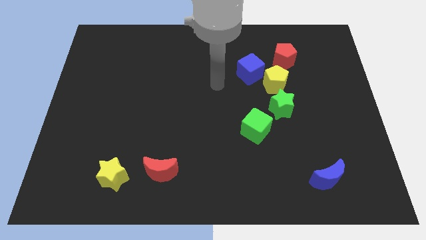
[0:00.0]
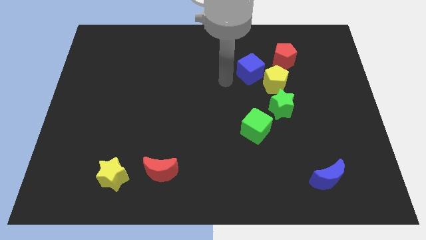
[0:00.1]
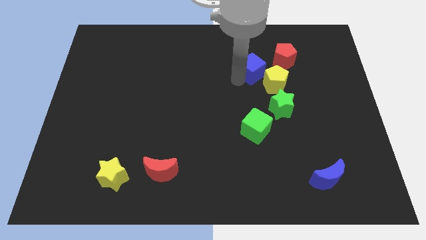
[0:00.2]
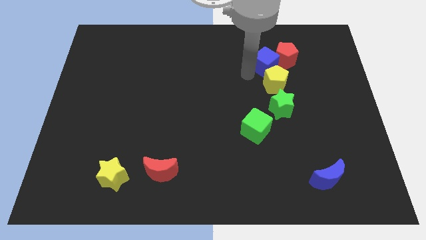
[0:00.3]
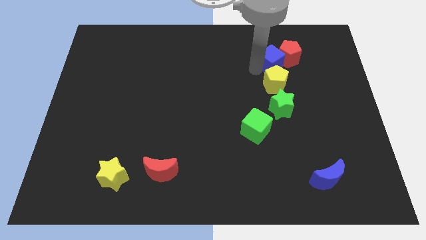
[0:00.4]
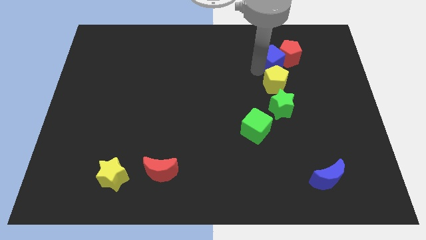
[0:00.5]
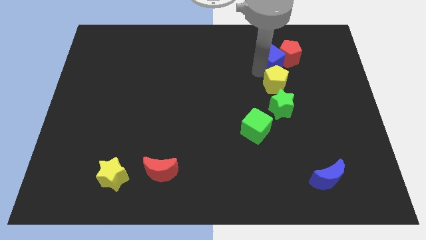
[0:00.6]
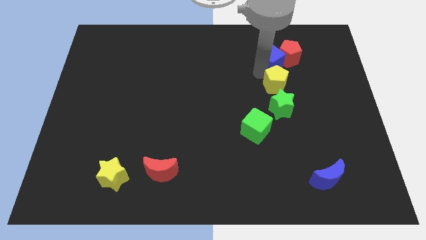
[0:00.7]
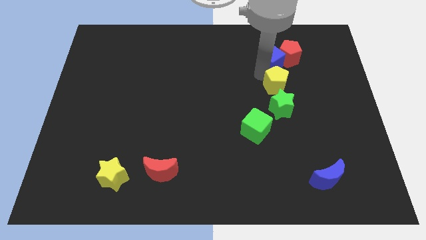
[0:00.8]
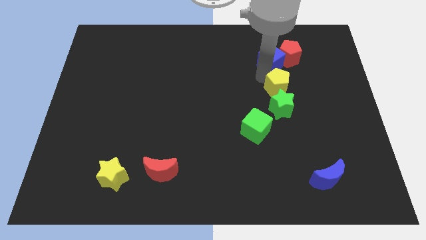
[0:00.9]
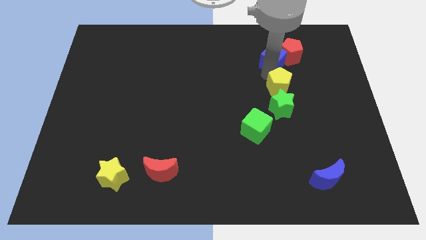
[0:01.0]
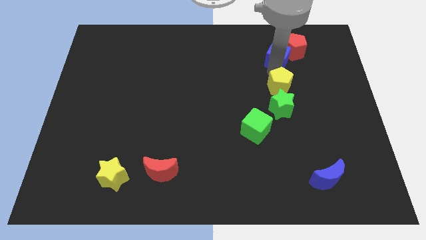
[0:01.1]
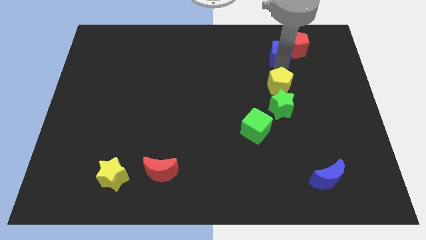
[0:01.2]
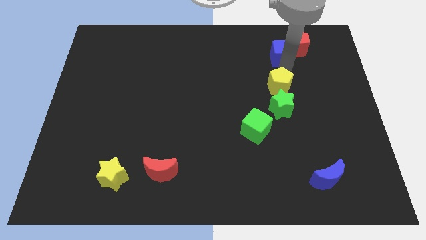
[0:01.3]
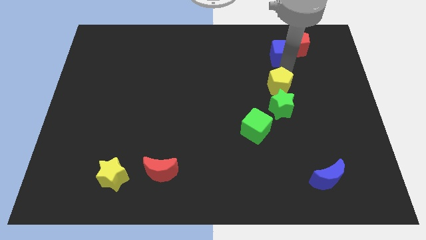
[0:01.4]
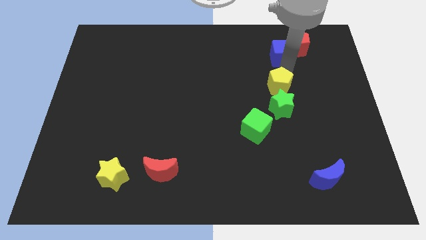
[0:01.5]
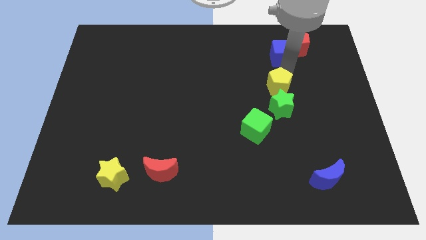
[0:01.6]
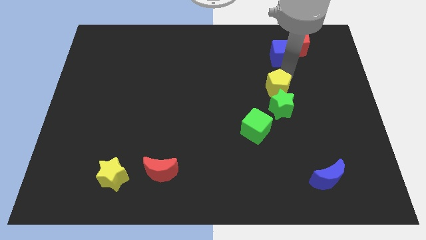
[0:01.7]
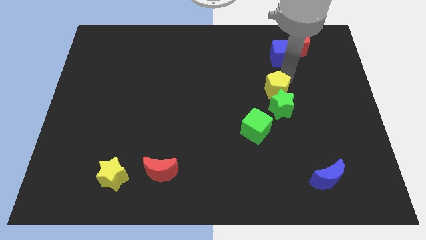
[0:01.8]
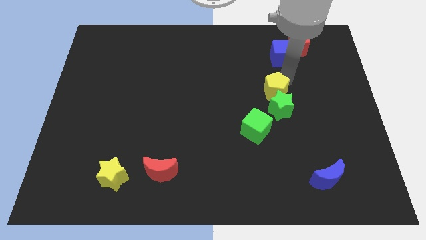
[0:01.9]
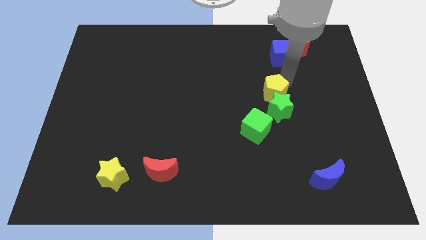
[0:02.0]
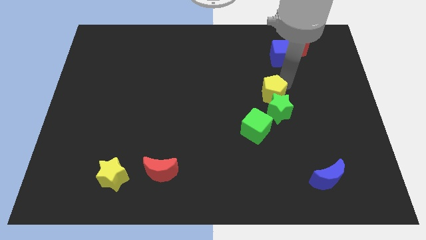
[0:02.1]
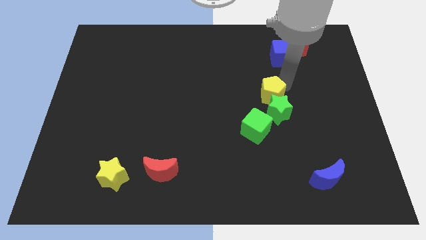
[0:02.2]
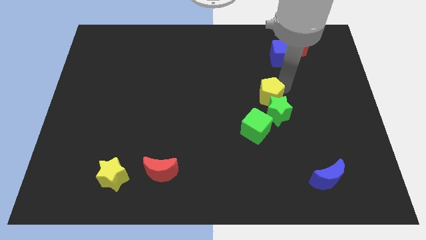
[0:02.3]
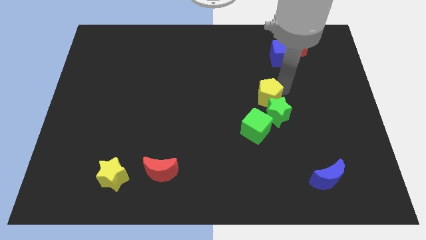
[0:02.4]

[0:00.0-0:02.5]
pull the yellow pentagon apart from the clump

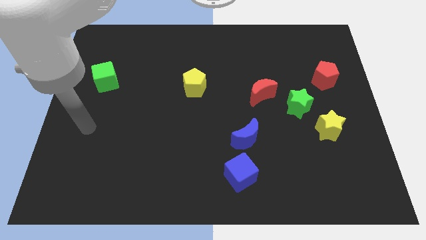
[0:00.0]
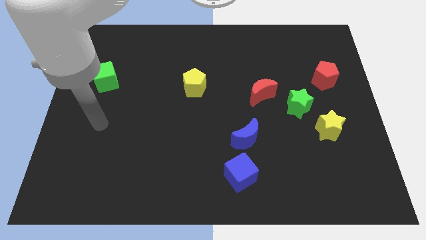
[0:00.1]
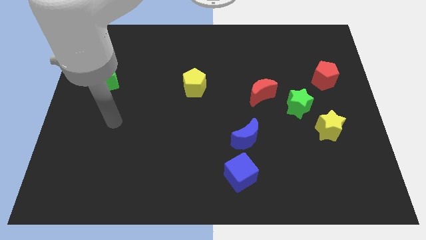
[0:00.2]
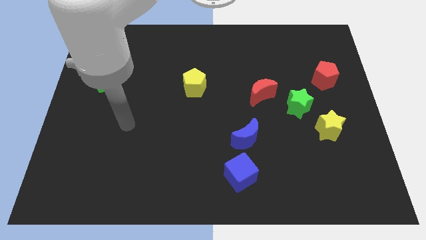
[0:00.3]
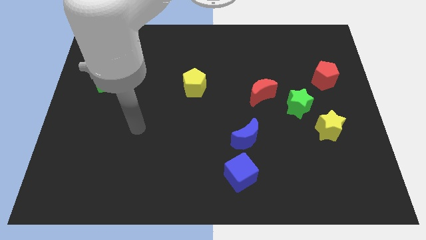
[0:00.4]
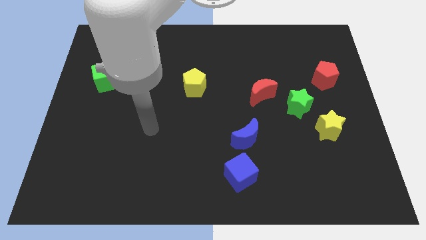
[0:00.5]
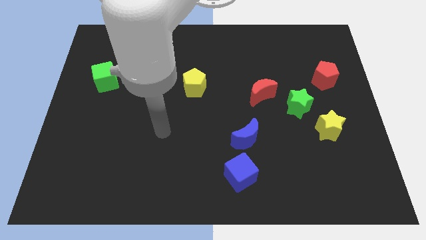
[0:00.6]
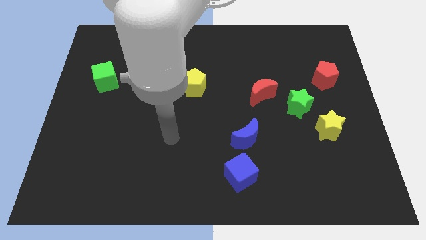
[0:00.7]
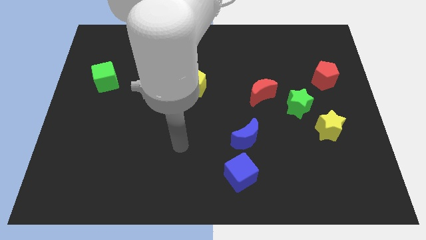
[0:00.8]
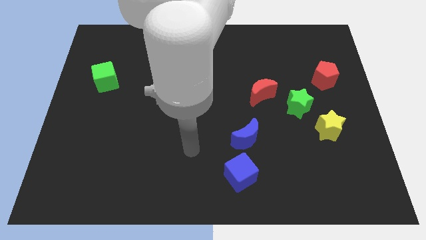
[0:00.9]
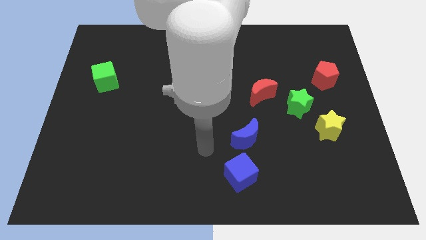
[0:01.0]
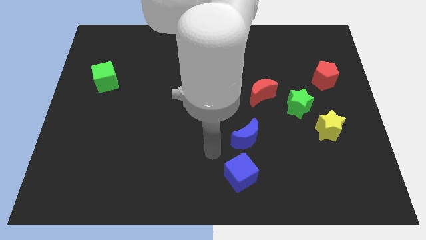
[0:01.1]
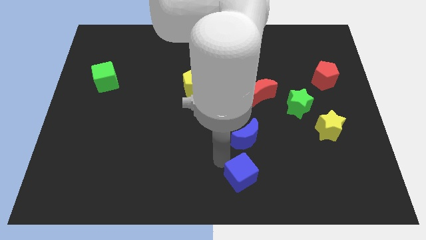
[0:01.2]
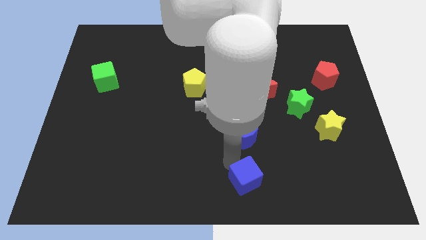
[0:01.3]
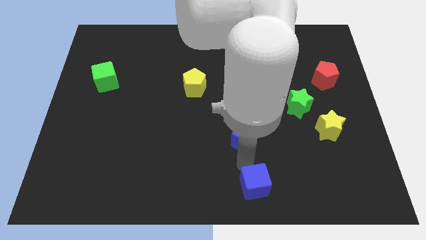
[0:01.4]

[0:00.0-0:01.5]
pull the blue moon apart from the blue cube

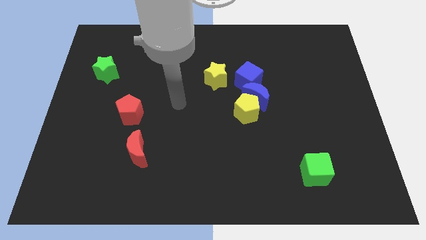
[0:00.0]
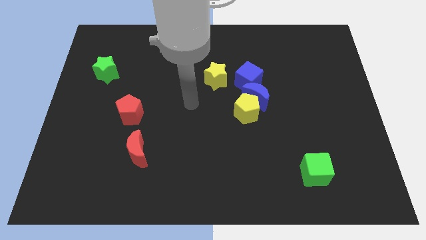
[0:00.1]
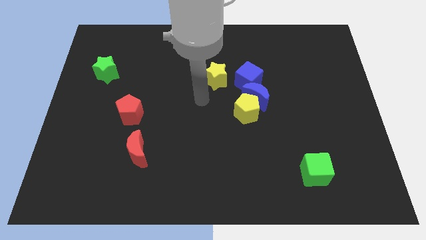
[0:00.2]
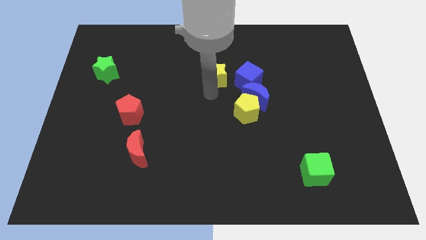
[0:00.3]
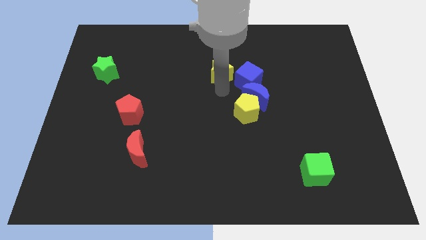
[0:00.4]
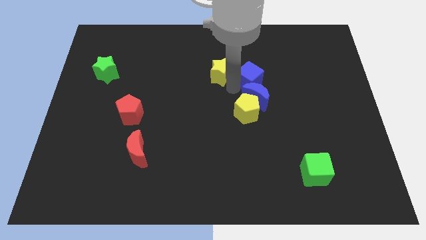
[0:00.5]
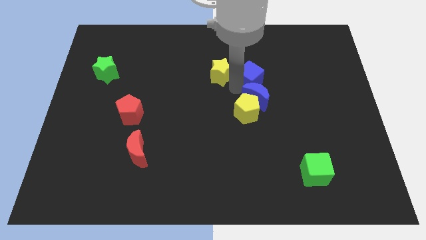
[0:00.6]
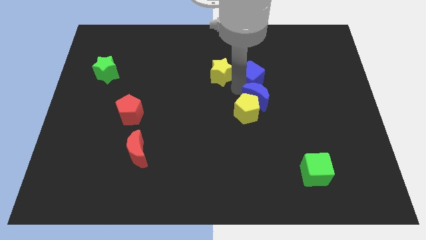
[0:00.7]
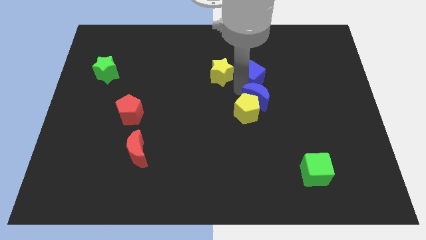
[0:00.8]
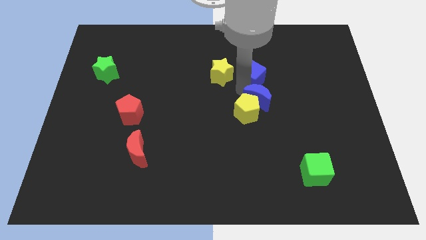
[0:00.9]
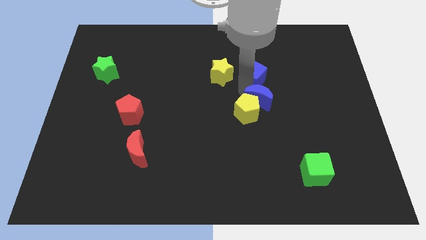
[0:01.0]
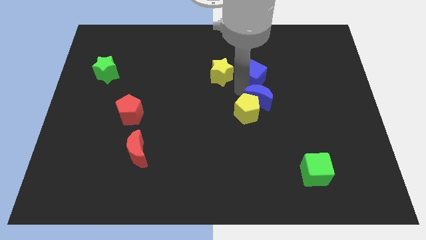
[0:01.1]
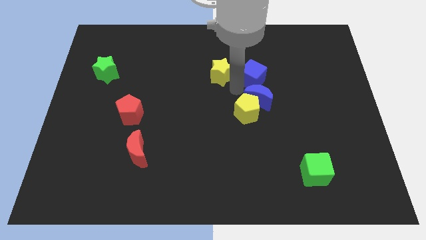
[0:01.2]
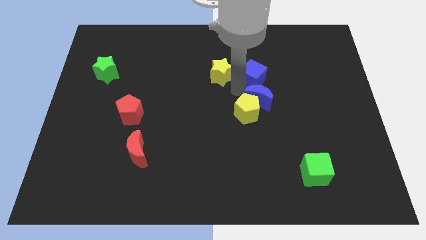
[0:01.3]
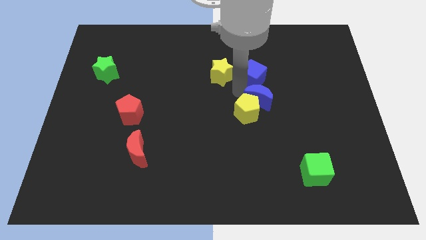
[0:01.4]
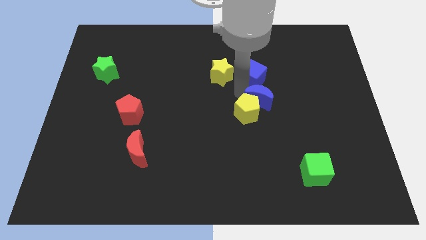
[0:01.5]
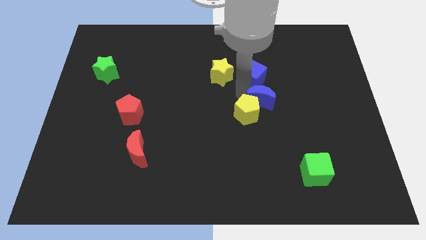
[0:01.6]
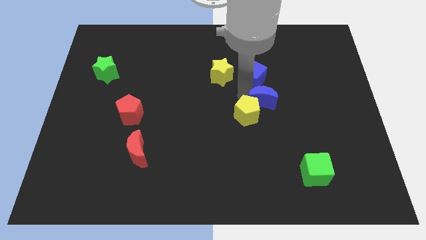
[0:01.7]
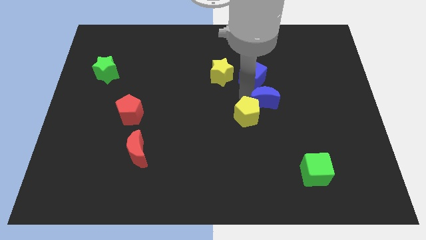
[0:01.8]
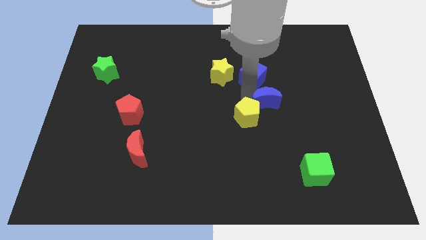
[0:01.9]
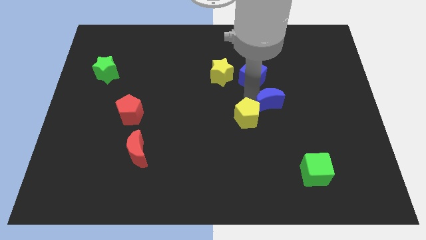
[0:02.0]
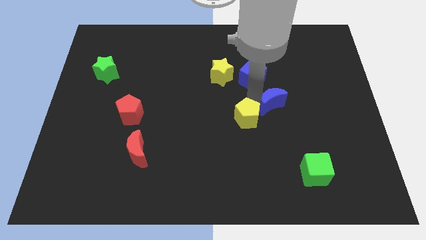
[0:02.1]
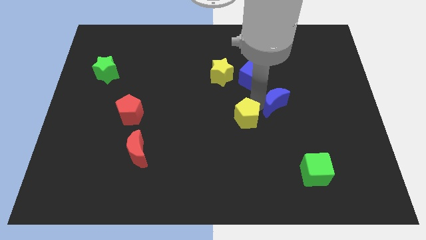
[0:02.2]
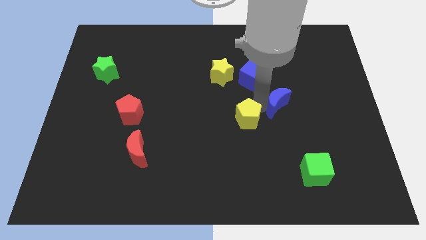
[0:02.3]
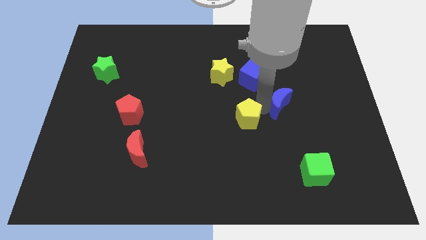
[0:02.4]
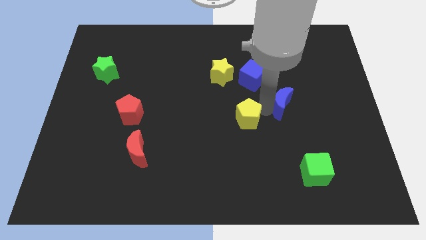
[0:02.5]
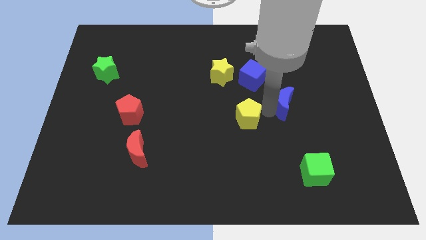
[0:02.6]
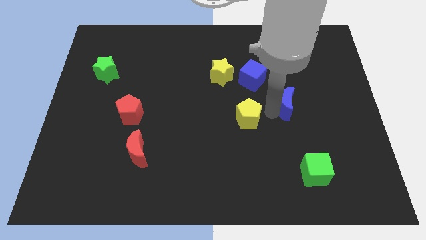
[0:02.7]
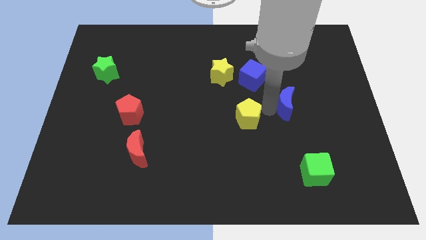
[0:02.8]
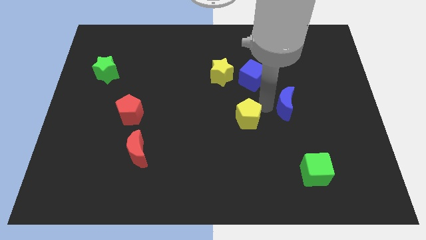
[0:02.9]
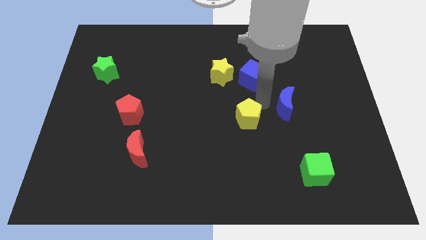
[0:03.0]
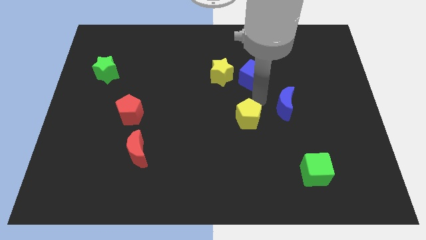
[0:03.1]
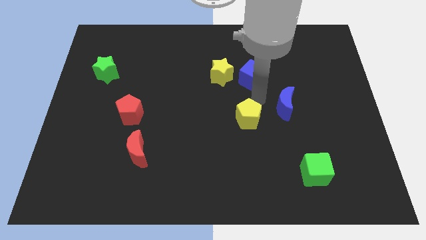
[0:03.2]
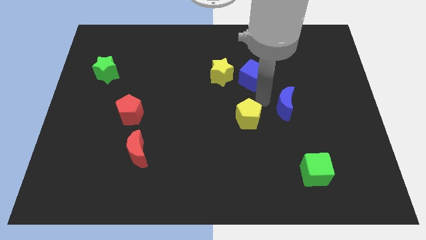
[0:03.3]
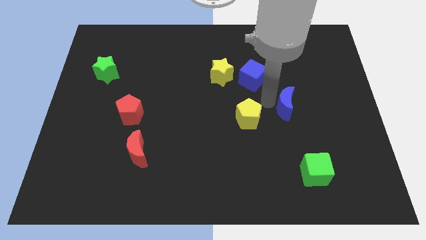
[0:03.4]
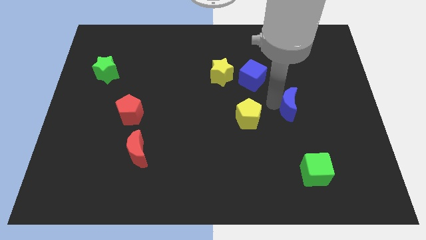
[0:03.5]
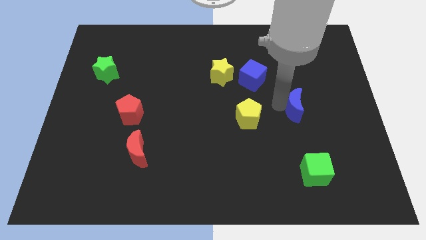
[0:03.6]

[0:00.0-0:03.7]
move the blue moon away from the yellow pentagon and blue cube

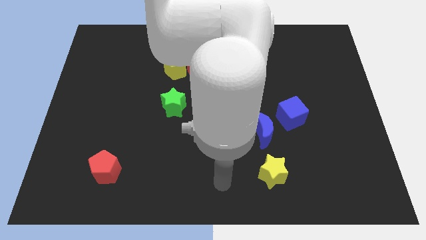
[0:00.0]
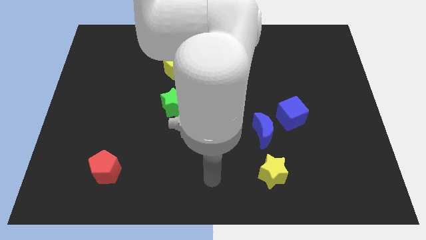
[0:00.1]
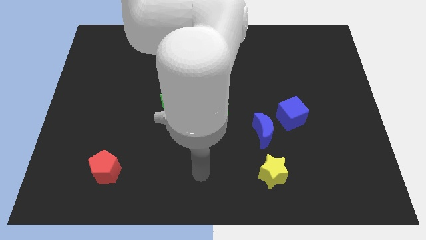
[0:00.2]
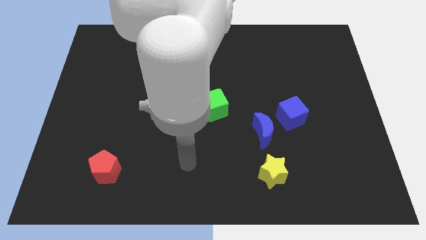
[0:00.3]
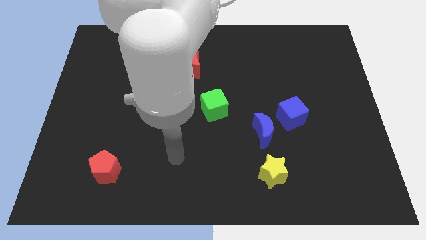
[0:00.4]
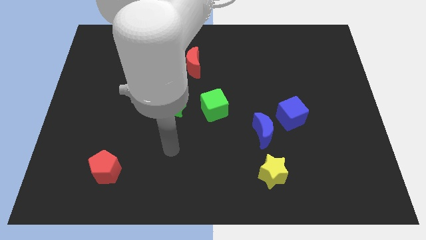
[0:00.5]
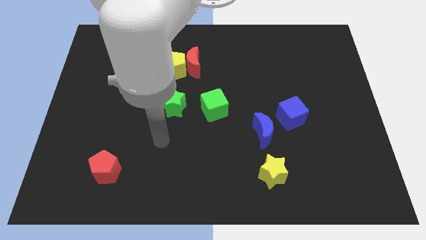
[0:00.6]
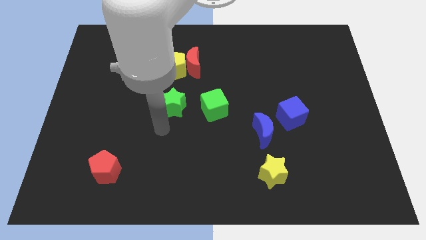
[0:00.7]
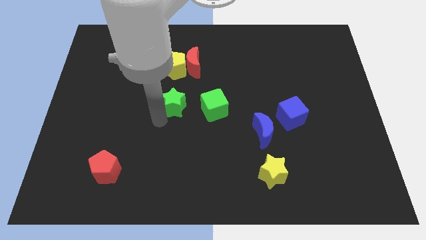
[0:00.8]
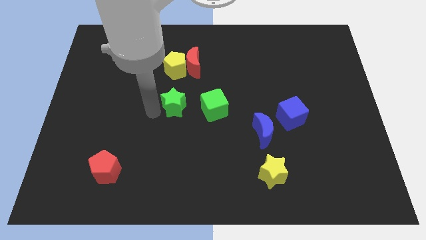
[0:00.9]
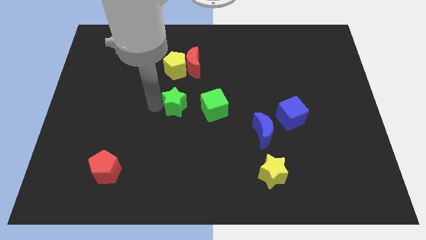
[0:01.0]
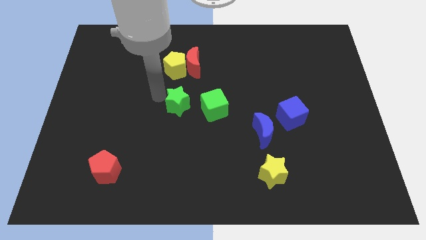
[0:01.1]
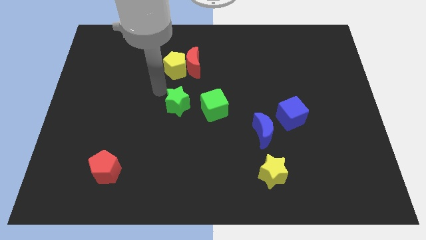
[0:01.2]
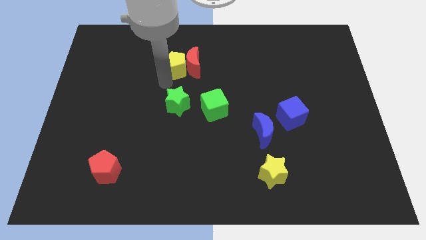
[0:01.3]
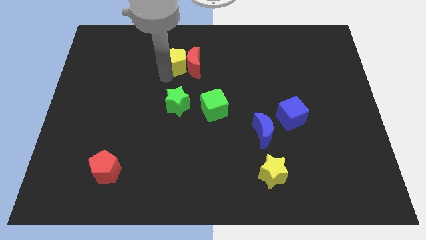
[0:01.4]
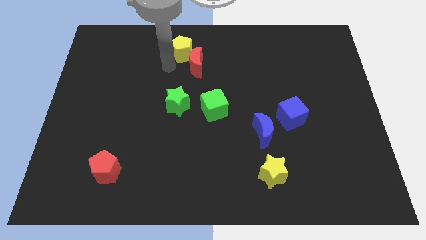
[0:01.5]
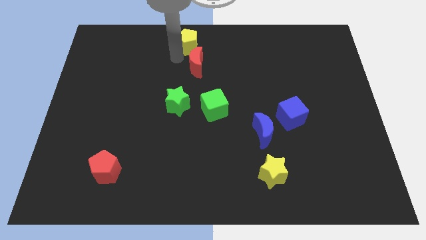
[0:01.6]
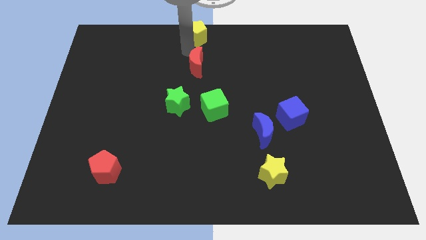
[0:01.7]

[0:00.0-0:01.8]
move the red moon away from the yellow pentagon
